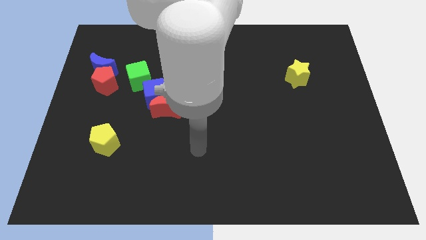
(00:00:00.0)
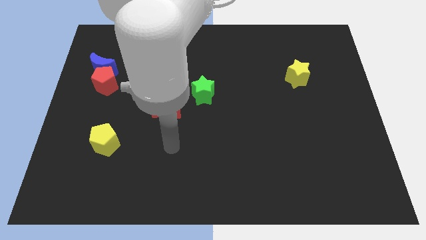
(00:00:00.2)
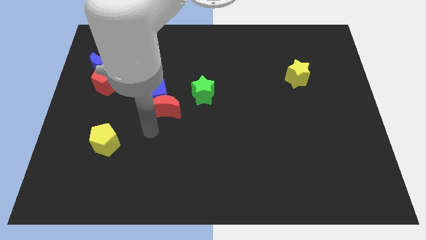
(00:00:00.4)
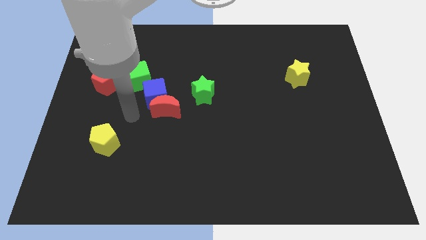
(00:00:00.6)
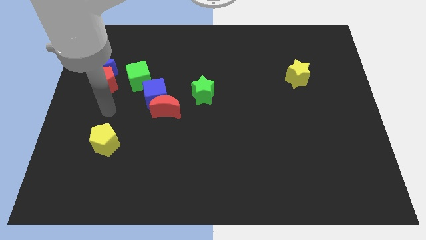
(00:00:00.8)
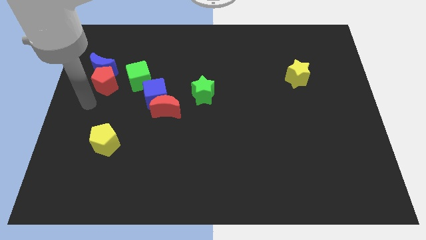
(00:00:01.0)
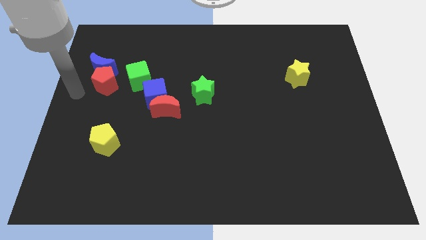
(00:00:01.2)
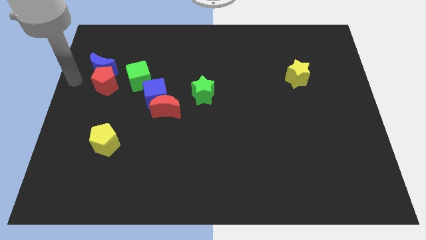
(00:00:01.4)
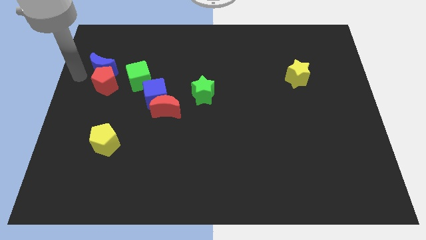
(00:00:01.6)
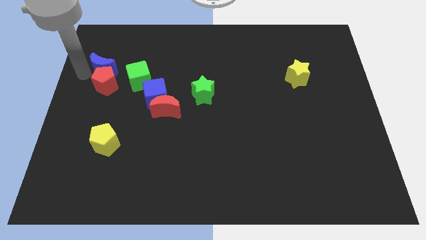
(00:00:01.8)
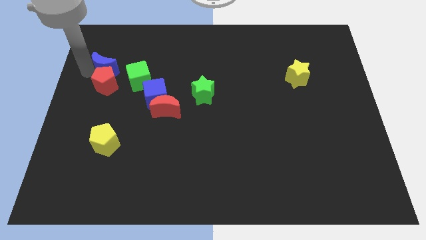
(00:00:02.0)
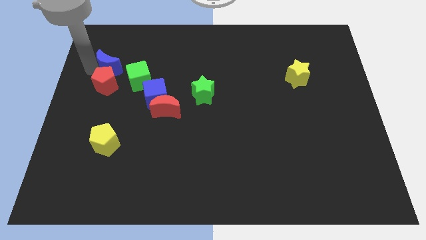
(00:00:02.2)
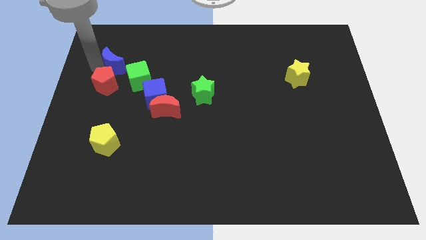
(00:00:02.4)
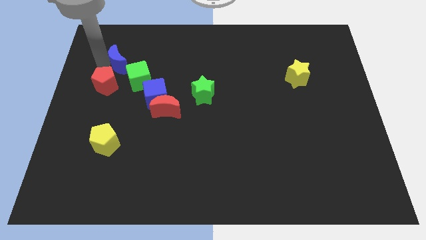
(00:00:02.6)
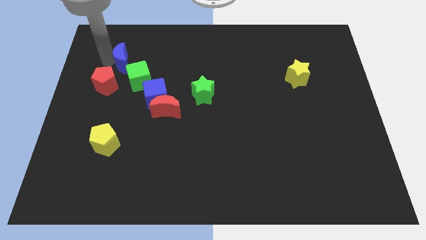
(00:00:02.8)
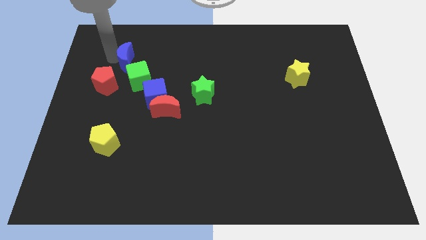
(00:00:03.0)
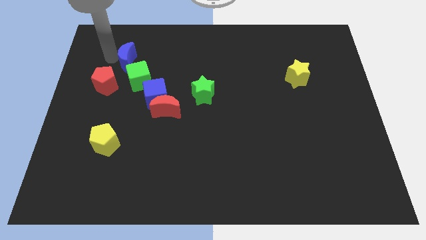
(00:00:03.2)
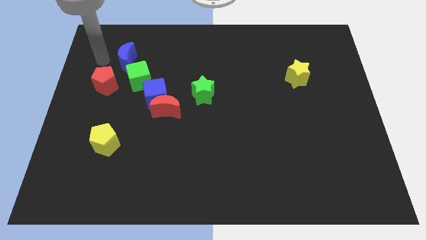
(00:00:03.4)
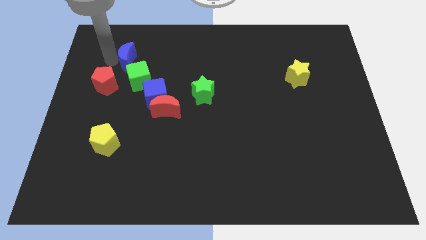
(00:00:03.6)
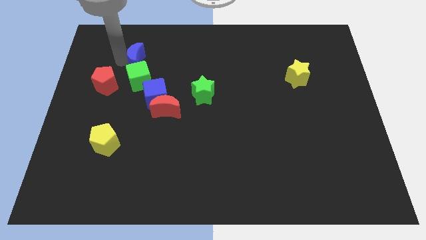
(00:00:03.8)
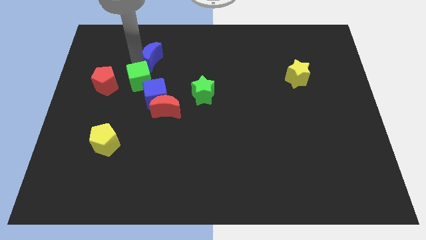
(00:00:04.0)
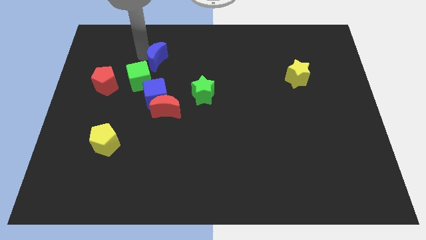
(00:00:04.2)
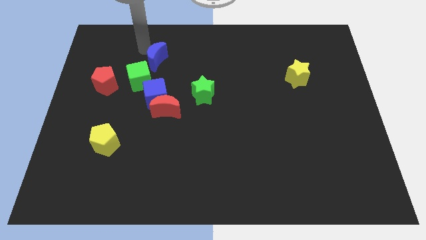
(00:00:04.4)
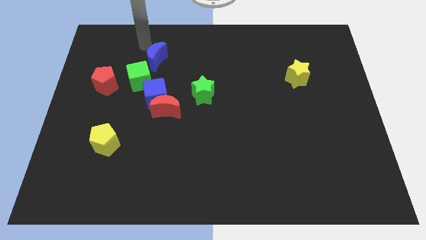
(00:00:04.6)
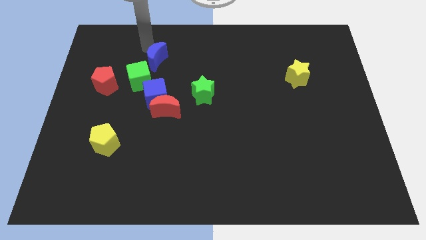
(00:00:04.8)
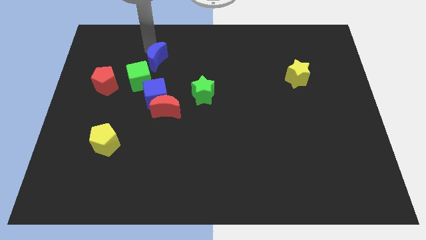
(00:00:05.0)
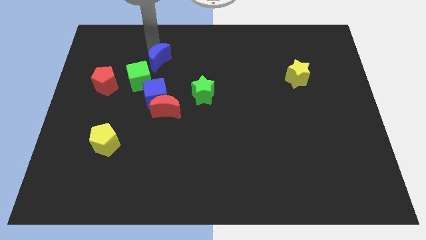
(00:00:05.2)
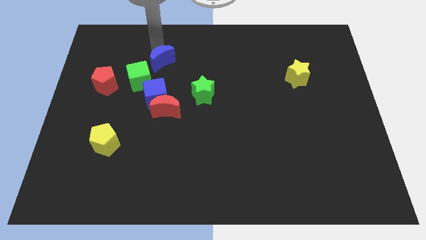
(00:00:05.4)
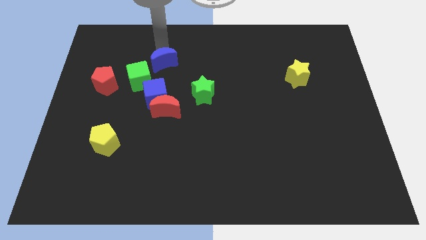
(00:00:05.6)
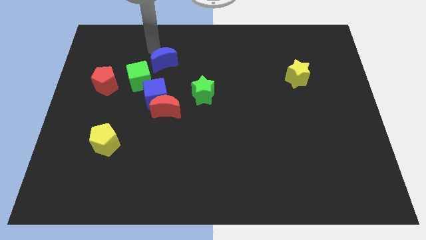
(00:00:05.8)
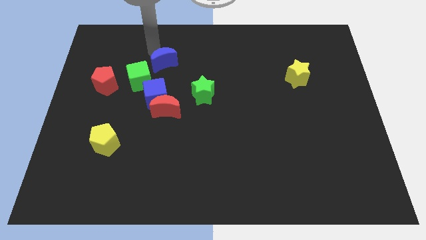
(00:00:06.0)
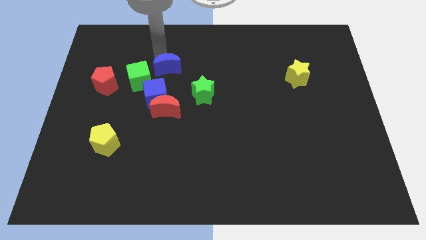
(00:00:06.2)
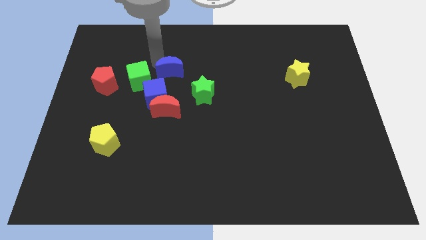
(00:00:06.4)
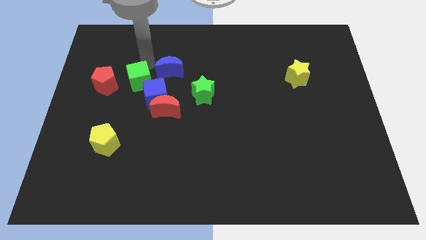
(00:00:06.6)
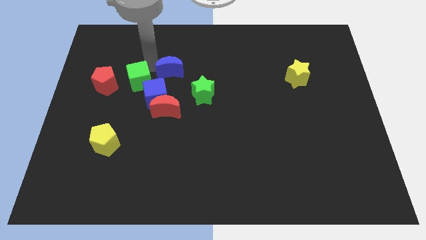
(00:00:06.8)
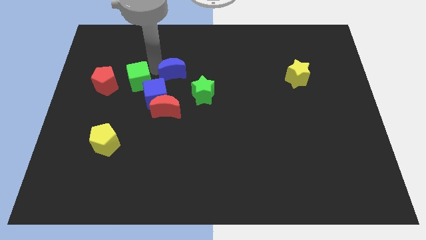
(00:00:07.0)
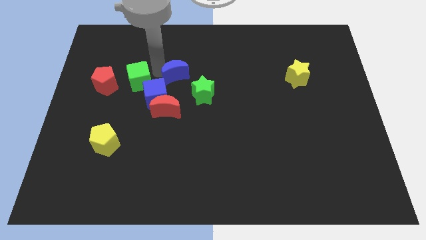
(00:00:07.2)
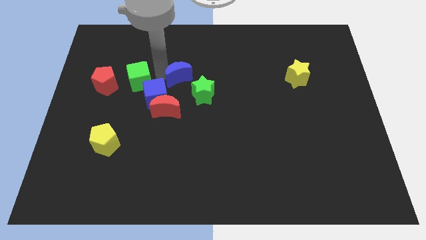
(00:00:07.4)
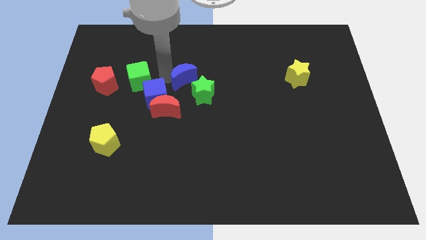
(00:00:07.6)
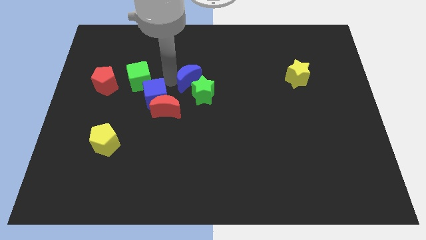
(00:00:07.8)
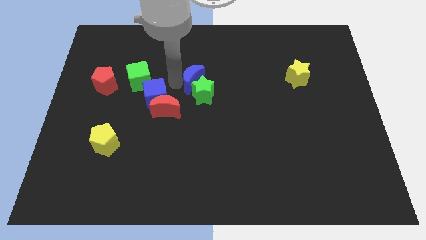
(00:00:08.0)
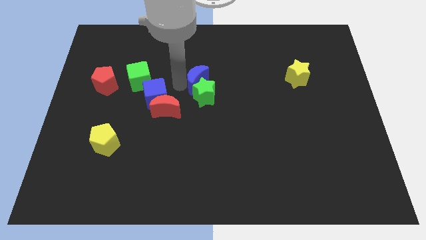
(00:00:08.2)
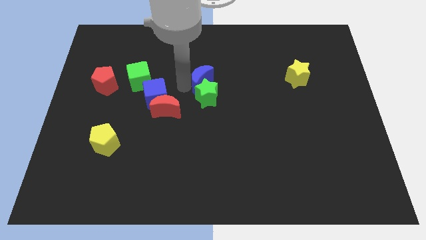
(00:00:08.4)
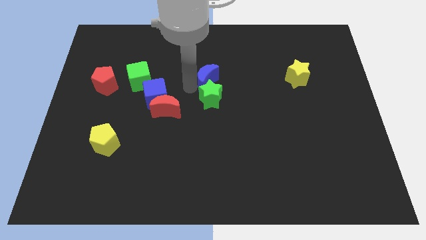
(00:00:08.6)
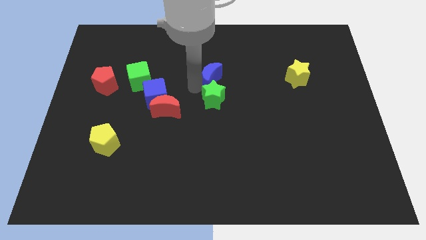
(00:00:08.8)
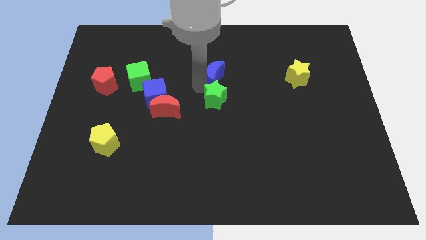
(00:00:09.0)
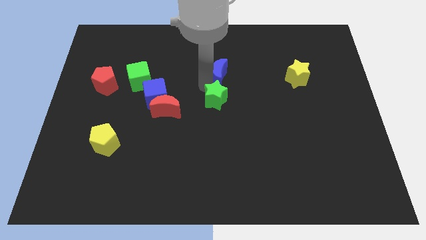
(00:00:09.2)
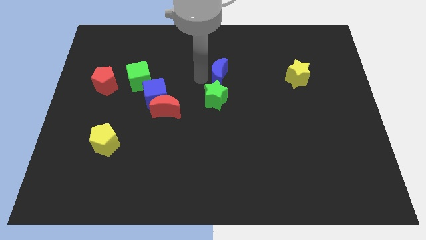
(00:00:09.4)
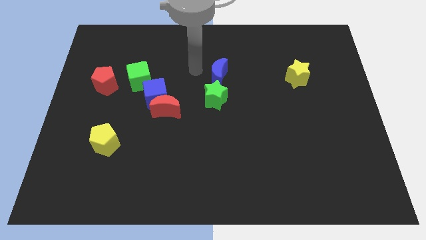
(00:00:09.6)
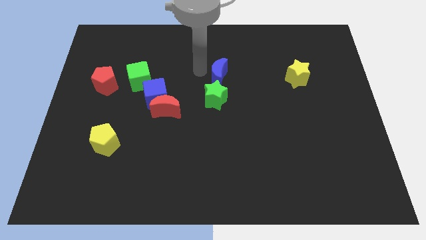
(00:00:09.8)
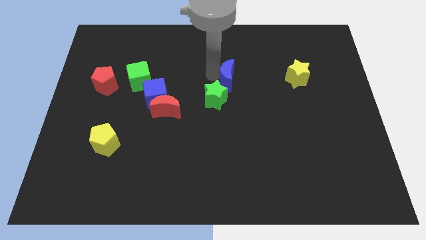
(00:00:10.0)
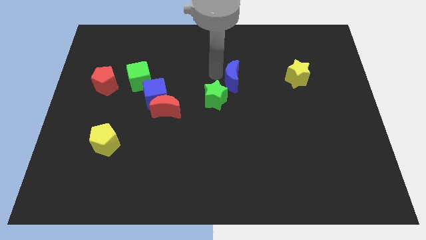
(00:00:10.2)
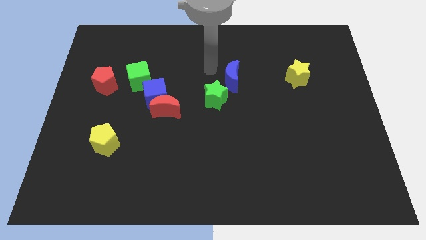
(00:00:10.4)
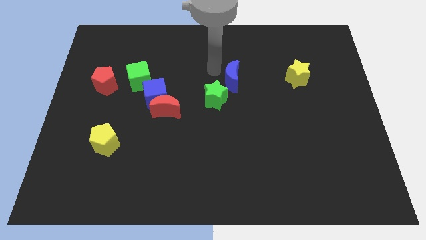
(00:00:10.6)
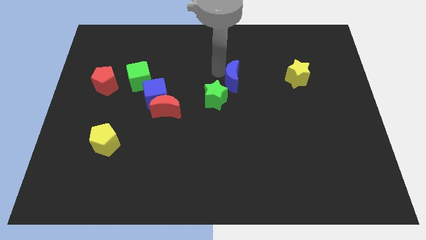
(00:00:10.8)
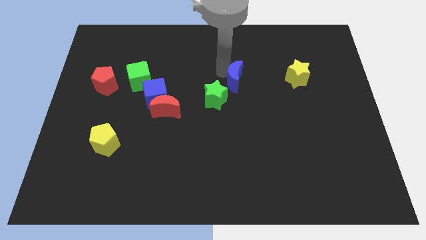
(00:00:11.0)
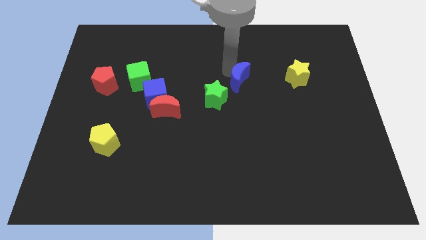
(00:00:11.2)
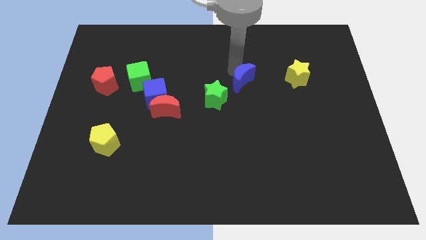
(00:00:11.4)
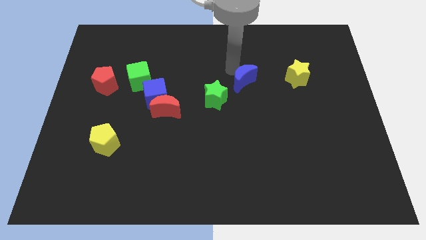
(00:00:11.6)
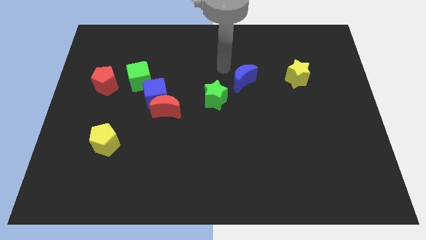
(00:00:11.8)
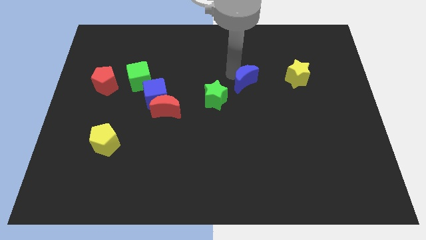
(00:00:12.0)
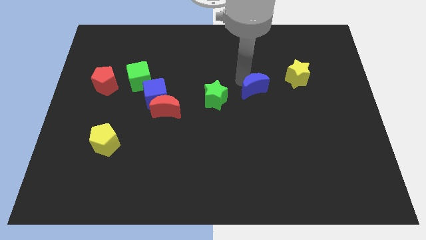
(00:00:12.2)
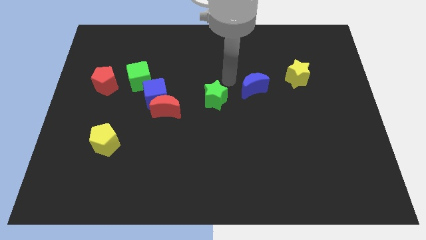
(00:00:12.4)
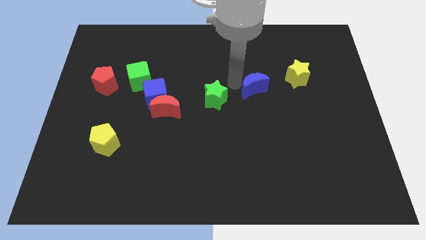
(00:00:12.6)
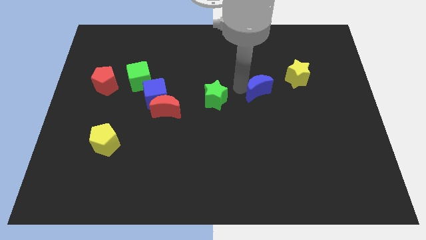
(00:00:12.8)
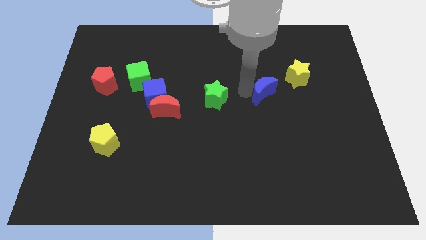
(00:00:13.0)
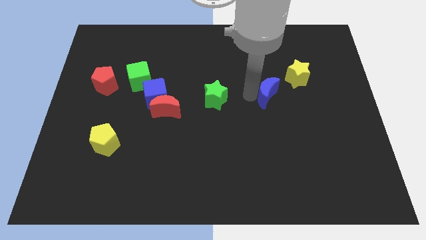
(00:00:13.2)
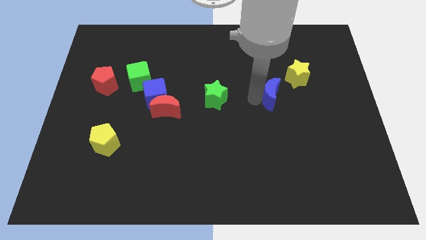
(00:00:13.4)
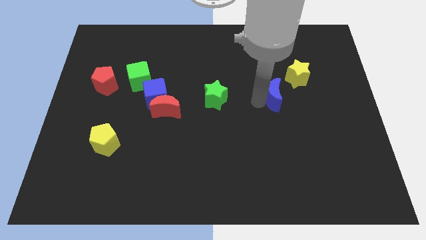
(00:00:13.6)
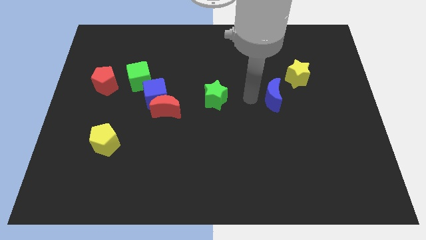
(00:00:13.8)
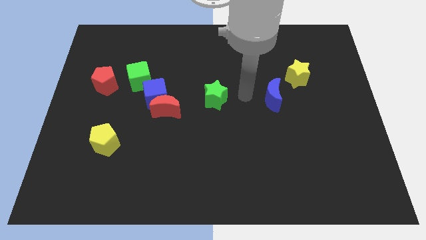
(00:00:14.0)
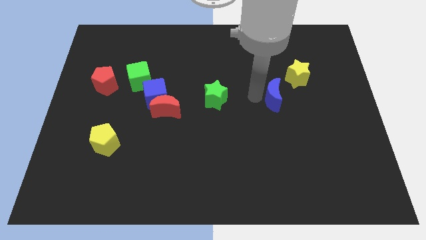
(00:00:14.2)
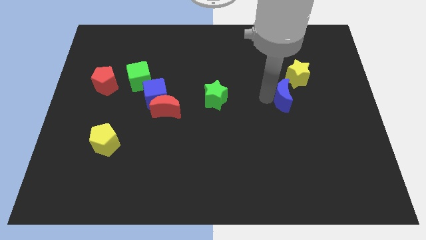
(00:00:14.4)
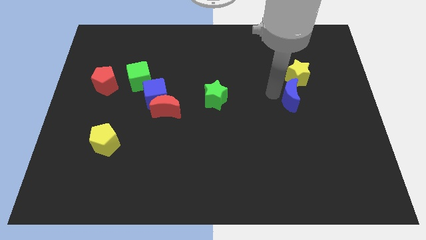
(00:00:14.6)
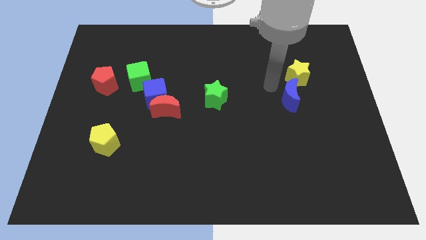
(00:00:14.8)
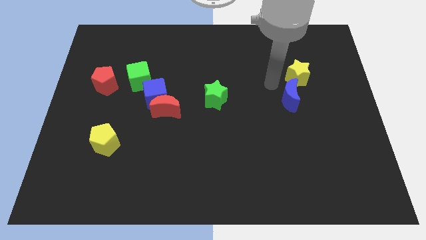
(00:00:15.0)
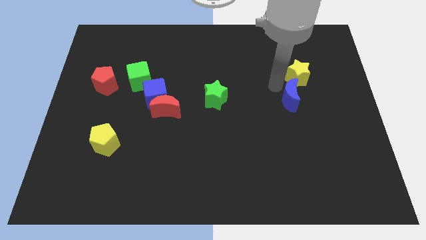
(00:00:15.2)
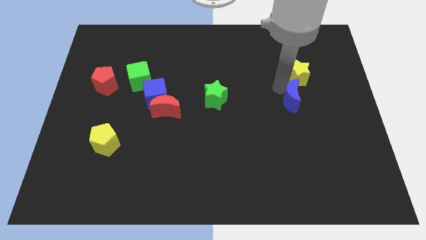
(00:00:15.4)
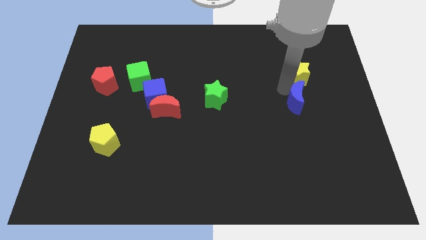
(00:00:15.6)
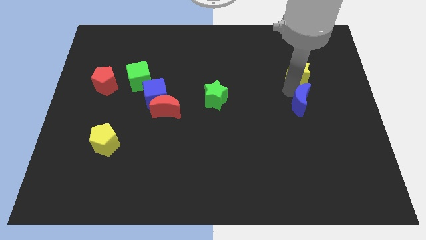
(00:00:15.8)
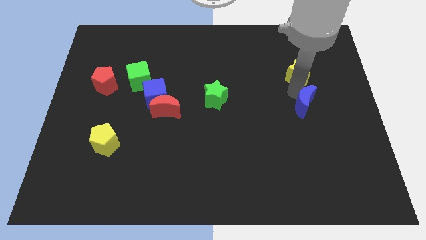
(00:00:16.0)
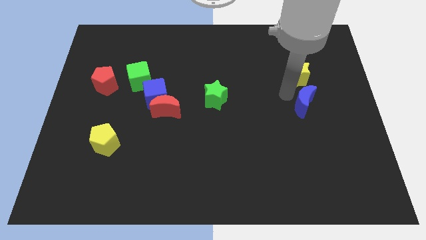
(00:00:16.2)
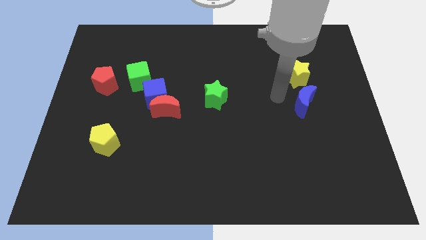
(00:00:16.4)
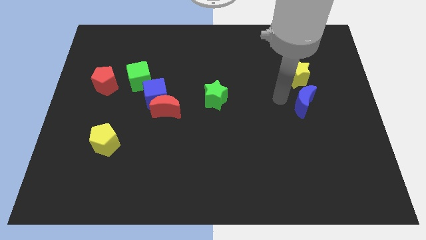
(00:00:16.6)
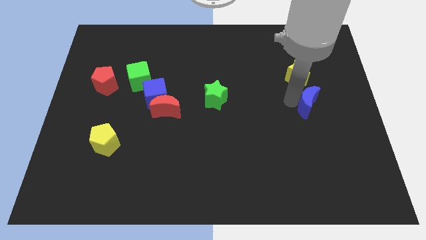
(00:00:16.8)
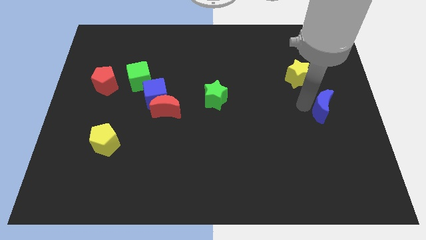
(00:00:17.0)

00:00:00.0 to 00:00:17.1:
slide the blue moon to the right side
